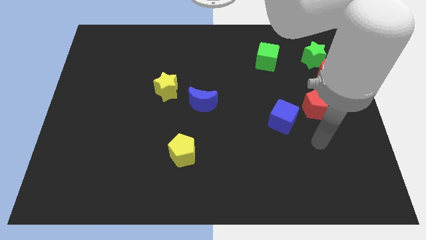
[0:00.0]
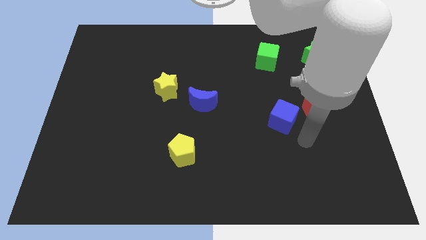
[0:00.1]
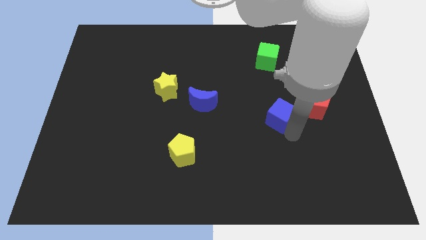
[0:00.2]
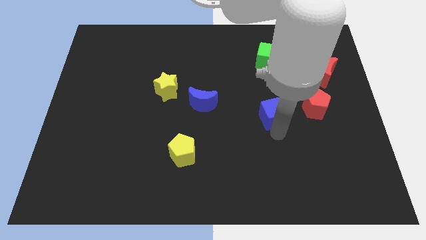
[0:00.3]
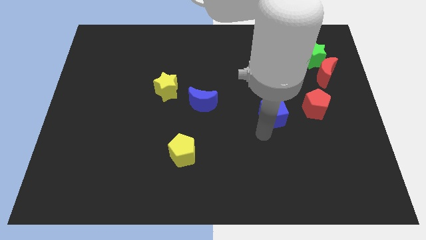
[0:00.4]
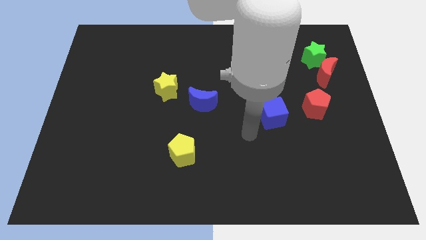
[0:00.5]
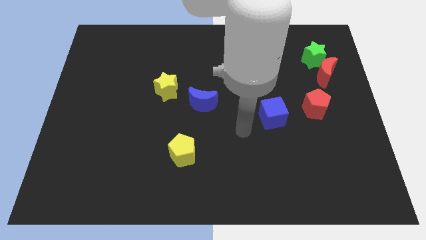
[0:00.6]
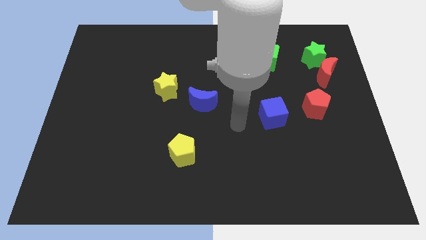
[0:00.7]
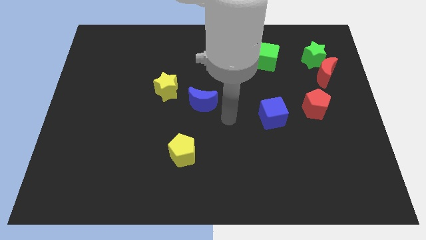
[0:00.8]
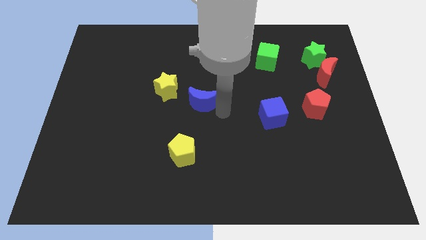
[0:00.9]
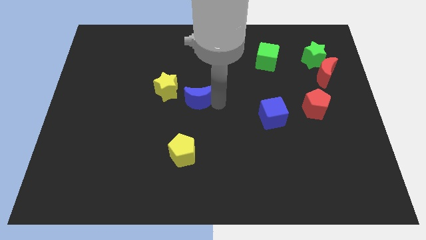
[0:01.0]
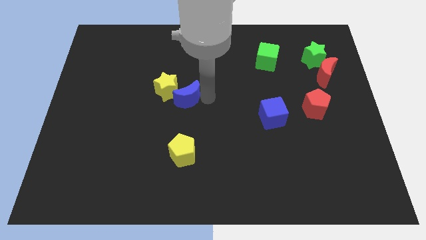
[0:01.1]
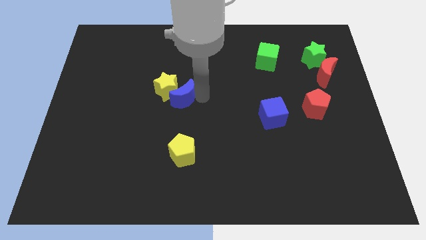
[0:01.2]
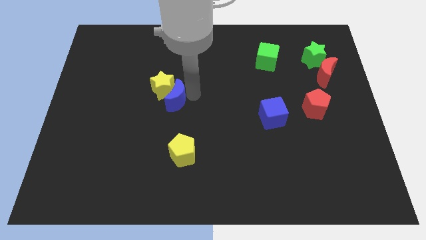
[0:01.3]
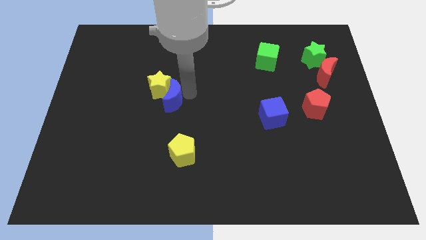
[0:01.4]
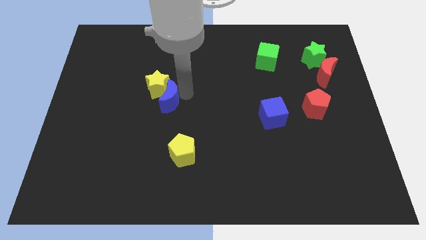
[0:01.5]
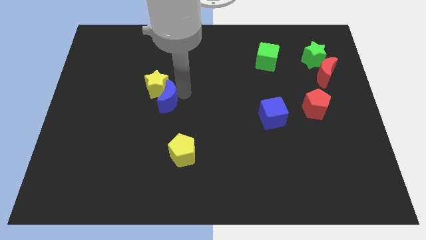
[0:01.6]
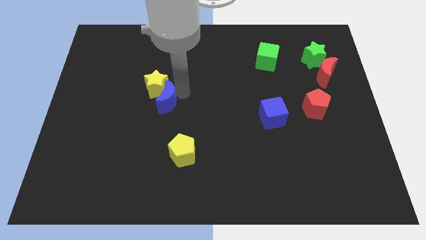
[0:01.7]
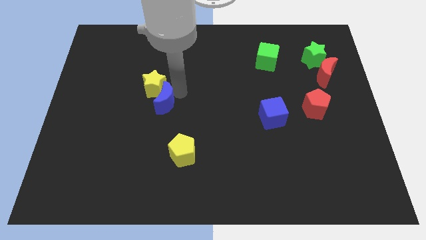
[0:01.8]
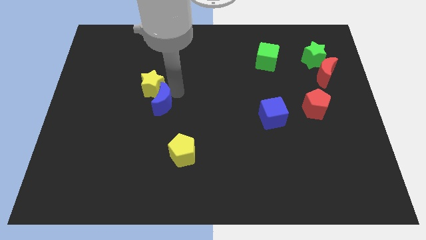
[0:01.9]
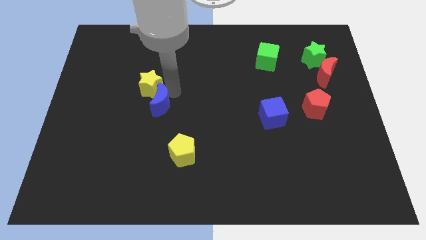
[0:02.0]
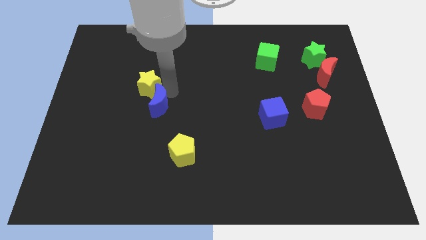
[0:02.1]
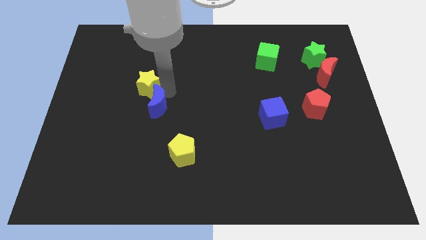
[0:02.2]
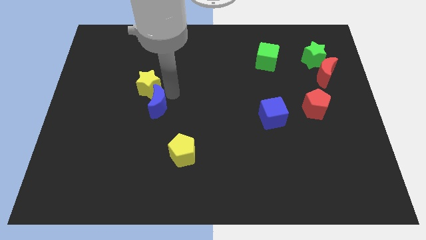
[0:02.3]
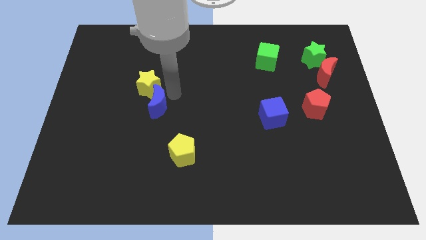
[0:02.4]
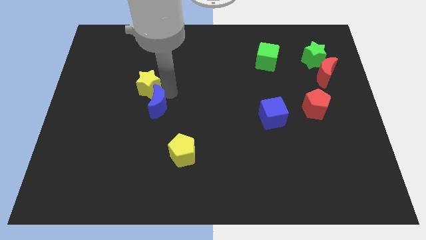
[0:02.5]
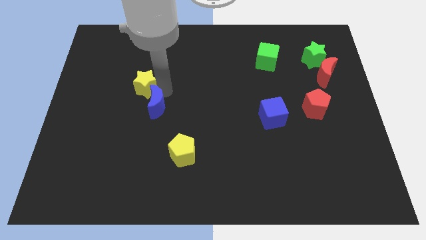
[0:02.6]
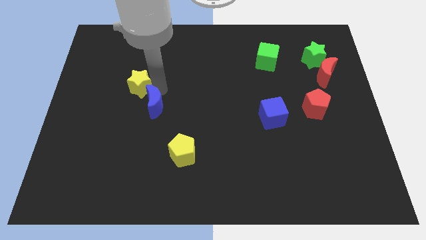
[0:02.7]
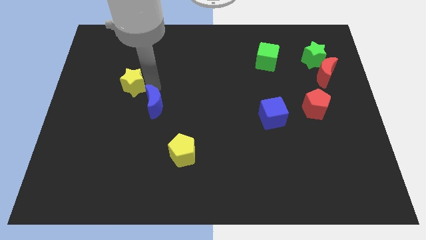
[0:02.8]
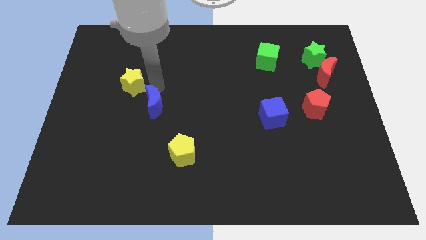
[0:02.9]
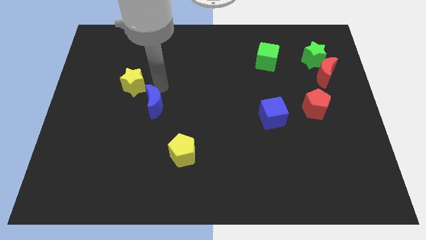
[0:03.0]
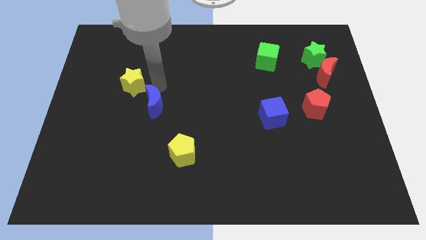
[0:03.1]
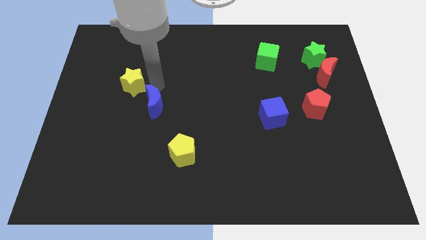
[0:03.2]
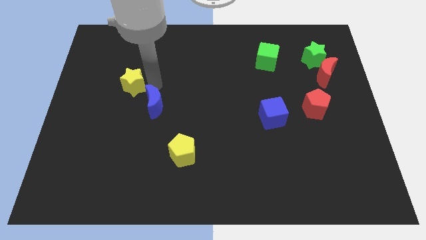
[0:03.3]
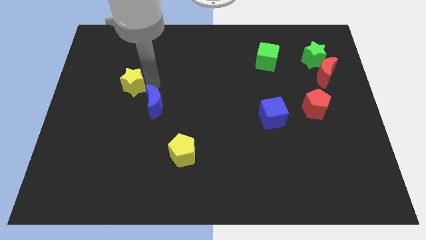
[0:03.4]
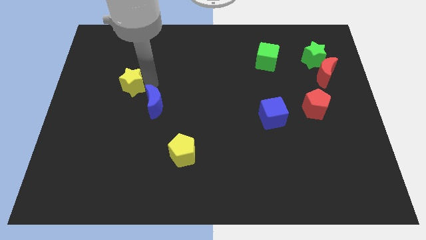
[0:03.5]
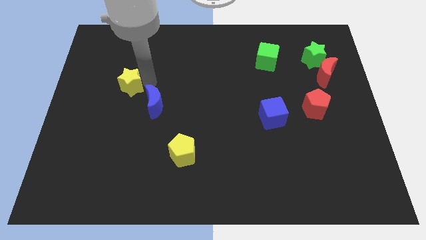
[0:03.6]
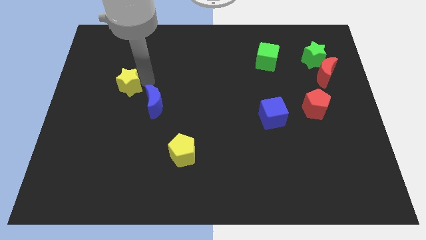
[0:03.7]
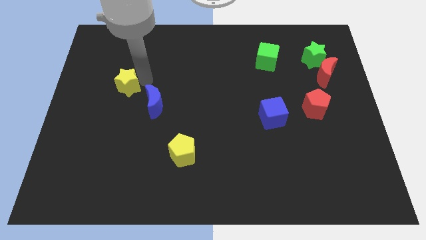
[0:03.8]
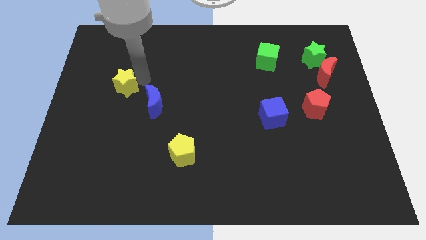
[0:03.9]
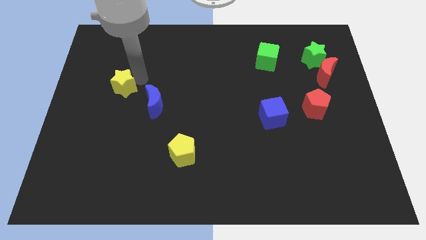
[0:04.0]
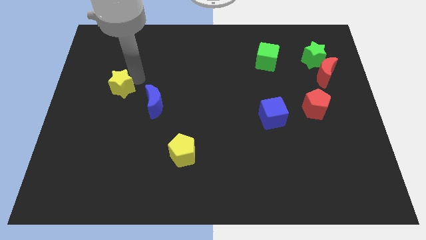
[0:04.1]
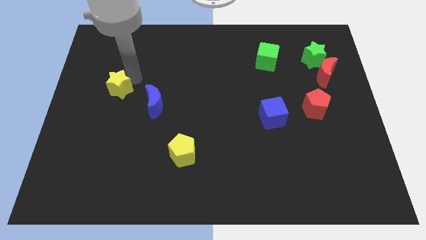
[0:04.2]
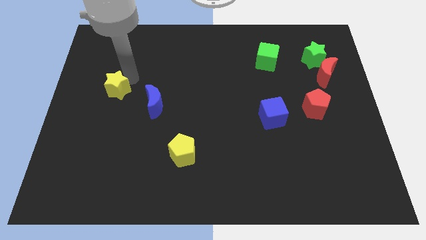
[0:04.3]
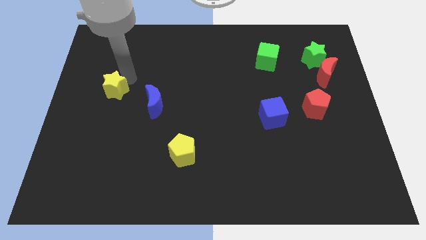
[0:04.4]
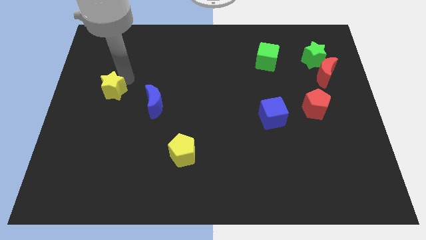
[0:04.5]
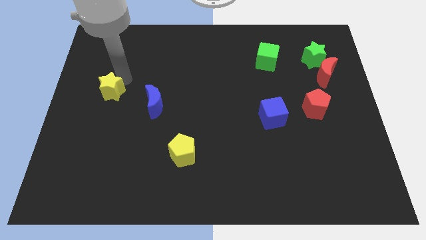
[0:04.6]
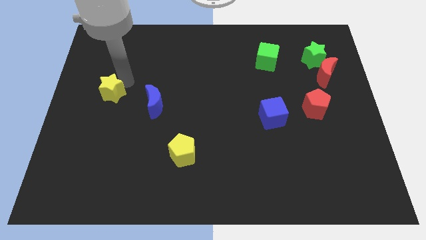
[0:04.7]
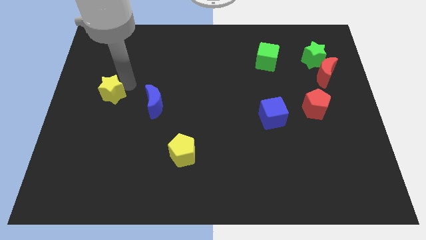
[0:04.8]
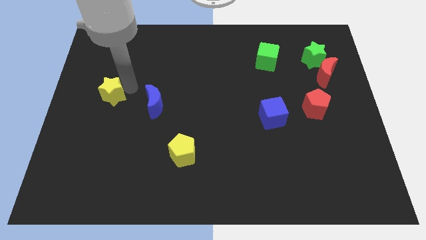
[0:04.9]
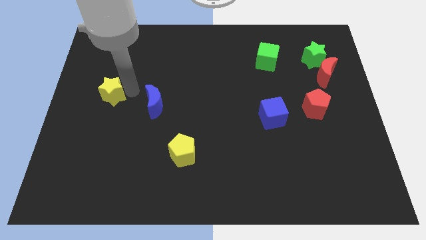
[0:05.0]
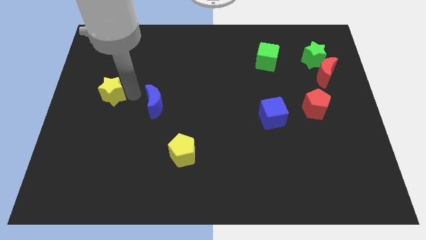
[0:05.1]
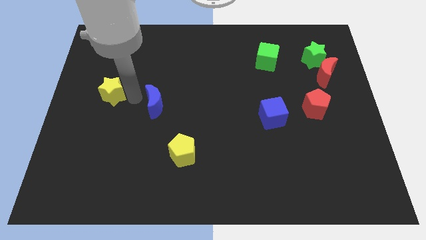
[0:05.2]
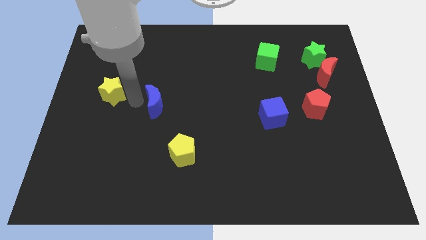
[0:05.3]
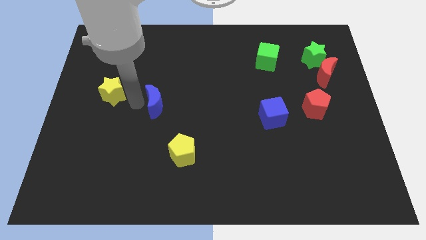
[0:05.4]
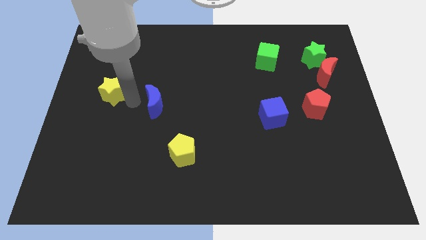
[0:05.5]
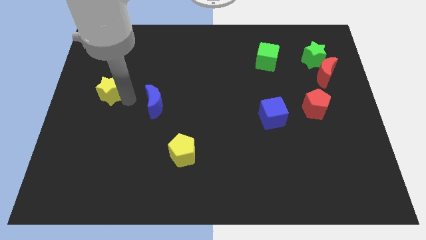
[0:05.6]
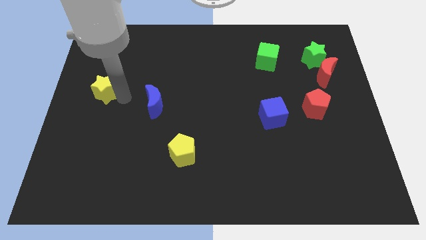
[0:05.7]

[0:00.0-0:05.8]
slide the yellow star to the left side of the board

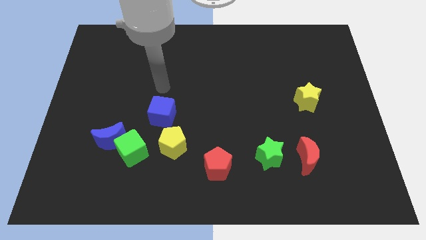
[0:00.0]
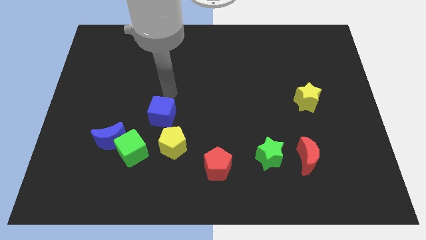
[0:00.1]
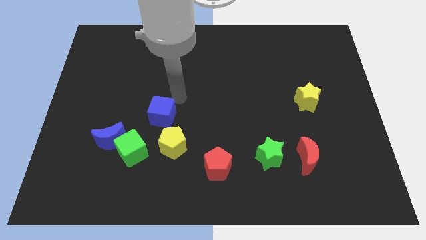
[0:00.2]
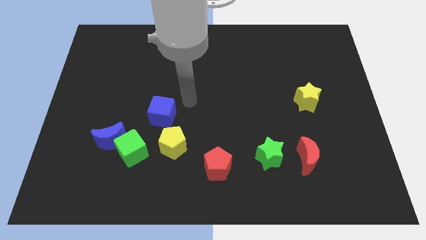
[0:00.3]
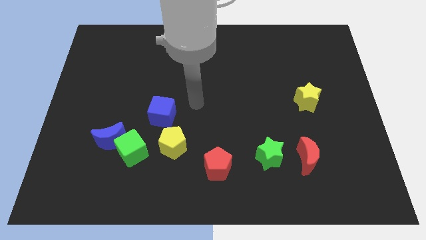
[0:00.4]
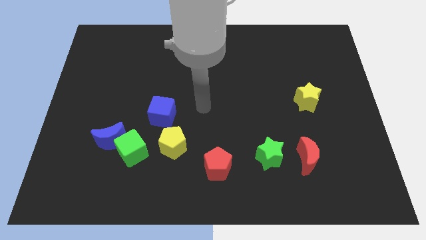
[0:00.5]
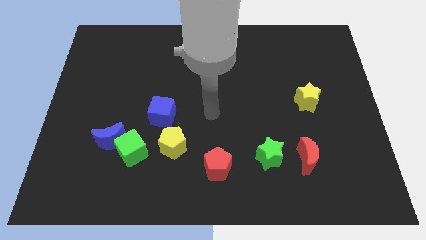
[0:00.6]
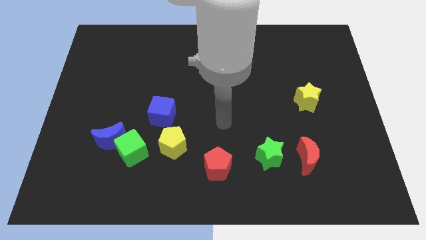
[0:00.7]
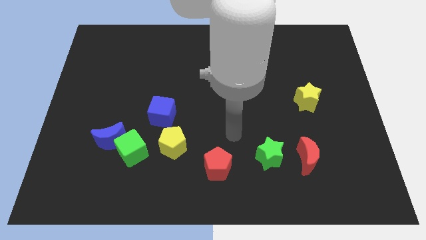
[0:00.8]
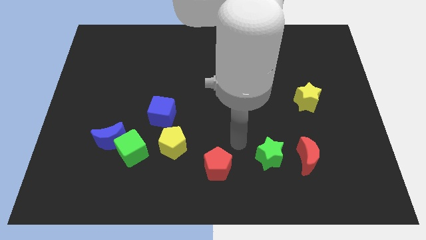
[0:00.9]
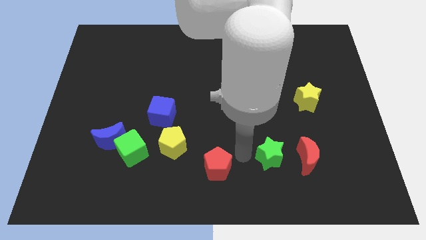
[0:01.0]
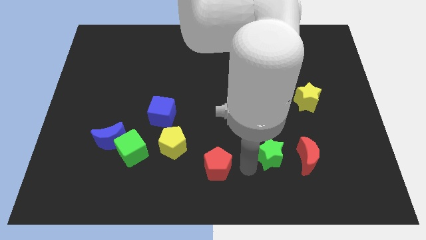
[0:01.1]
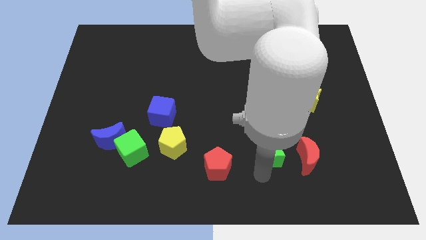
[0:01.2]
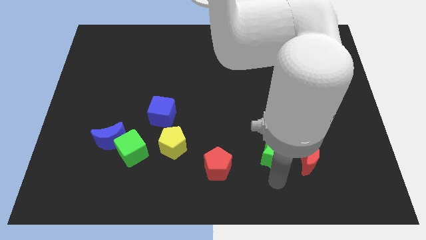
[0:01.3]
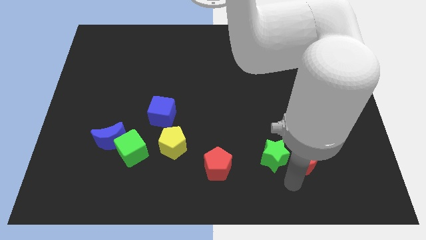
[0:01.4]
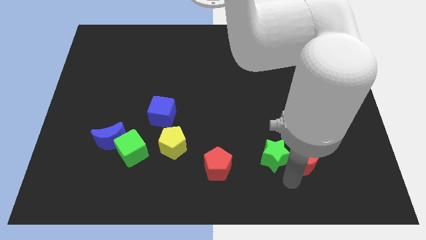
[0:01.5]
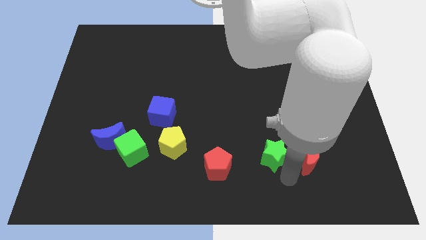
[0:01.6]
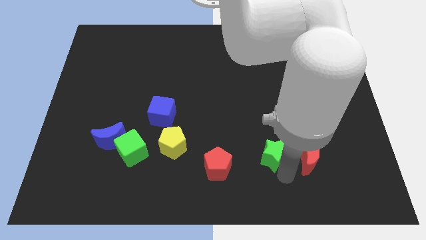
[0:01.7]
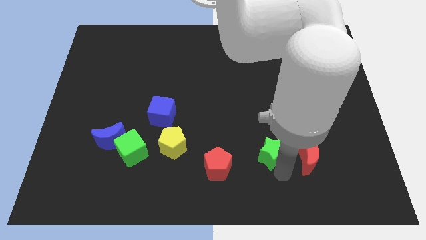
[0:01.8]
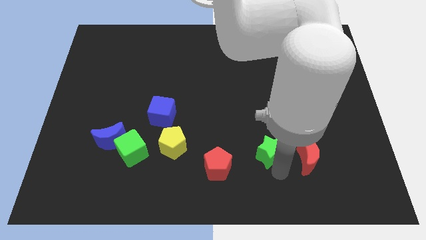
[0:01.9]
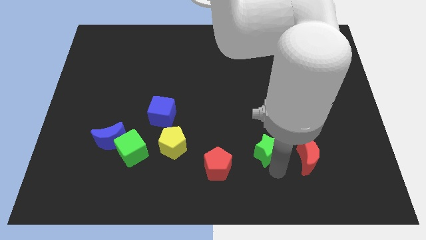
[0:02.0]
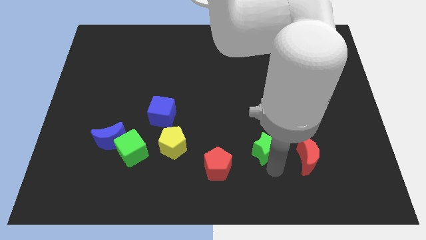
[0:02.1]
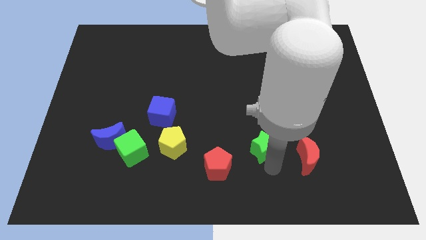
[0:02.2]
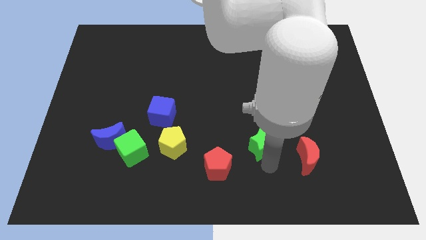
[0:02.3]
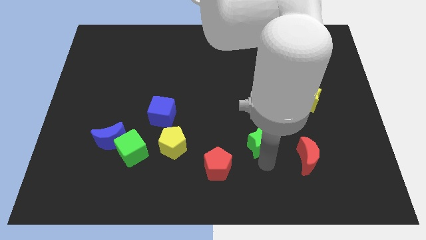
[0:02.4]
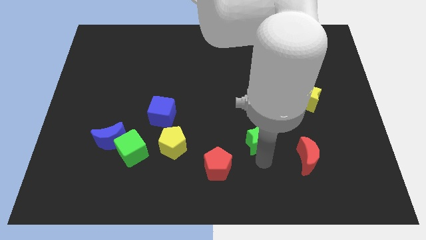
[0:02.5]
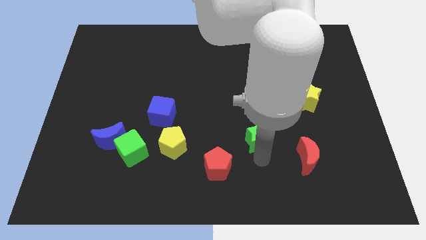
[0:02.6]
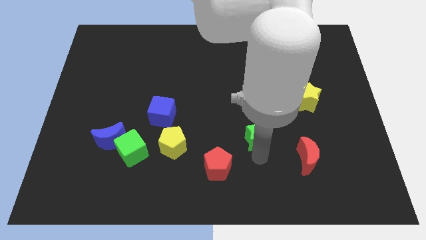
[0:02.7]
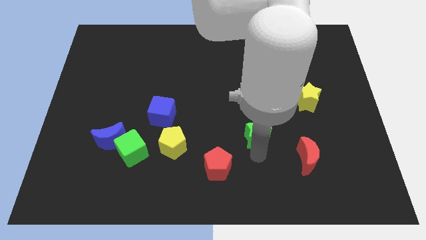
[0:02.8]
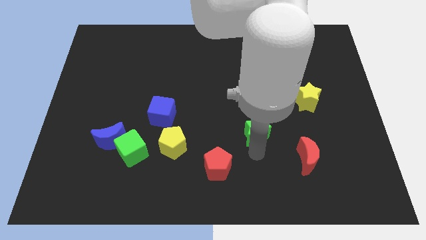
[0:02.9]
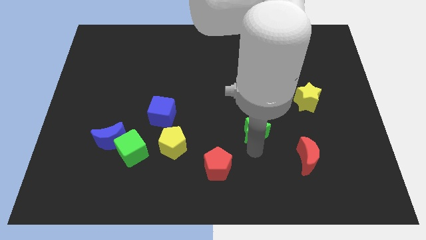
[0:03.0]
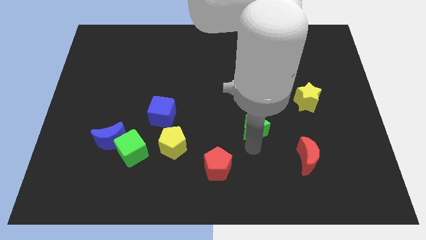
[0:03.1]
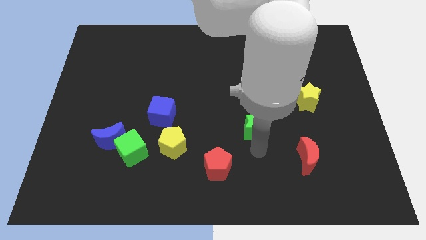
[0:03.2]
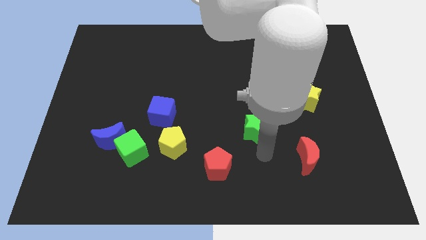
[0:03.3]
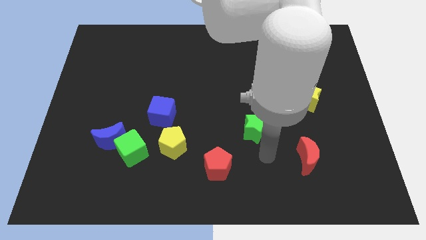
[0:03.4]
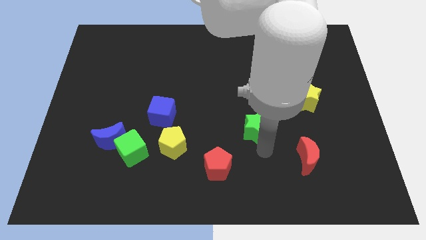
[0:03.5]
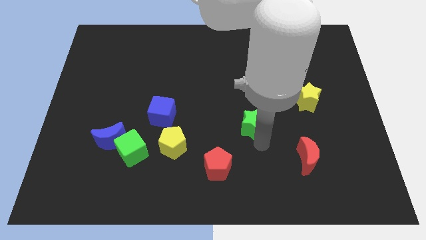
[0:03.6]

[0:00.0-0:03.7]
push the green star to the center of the board
